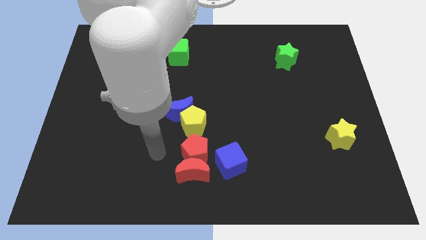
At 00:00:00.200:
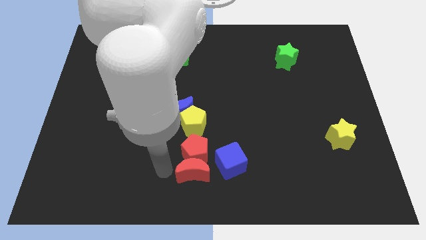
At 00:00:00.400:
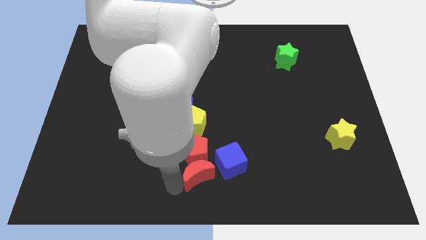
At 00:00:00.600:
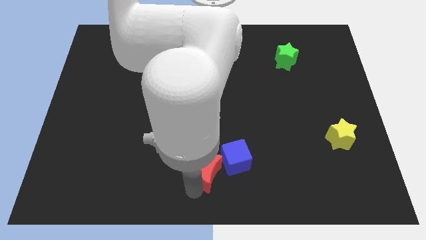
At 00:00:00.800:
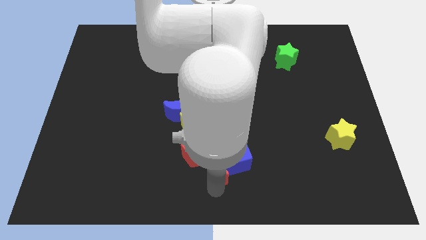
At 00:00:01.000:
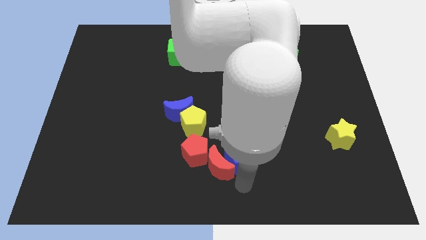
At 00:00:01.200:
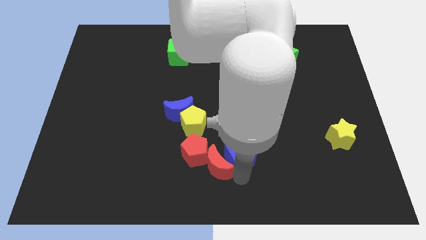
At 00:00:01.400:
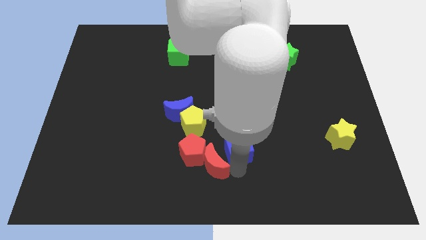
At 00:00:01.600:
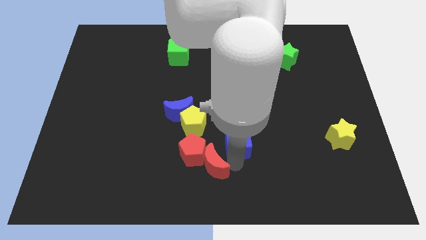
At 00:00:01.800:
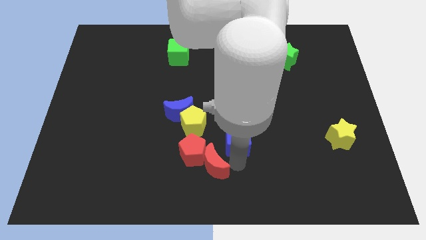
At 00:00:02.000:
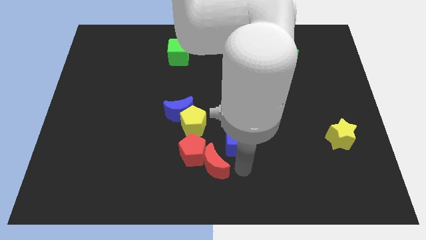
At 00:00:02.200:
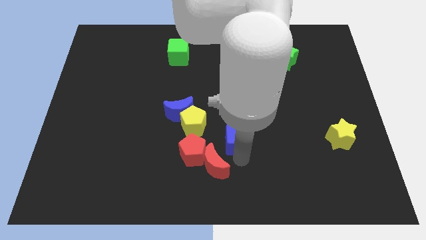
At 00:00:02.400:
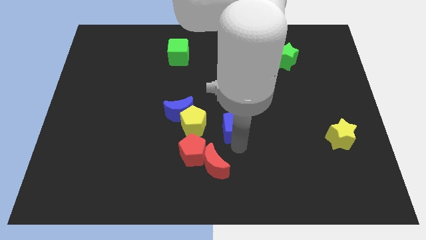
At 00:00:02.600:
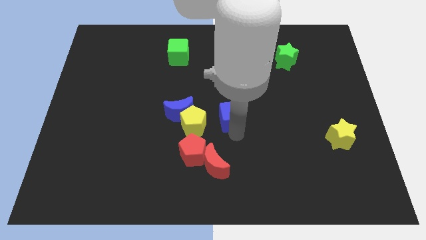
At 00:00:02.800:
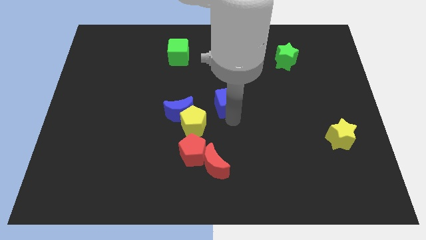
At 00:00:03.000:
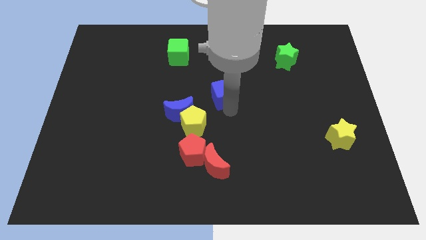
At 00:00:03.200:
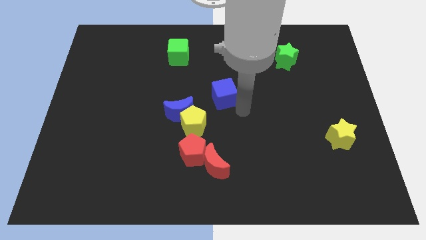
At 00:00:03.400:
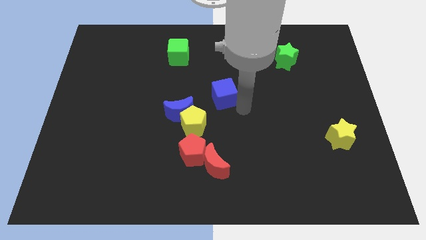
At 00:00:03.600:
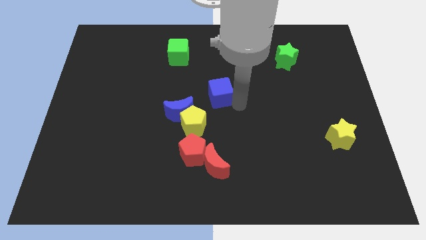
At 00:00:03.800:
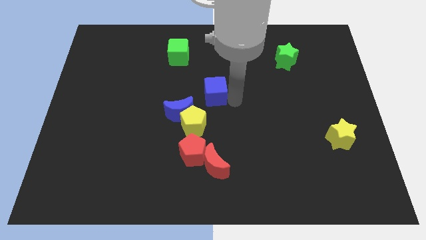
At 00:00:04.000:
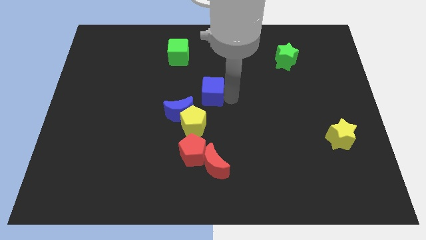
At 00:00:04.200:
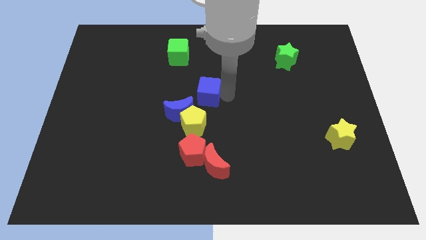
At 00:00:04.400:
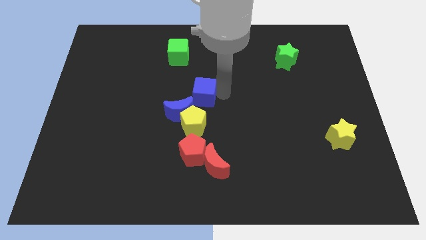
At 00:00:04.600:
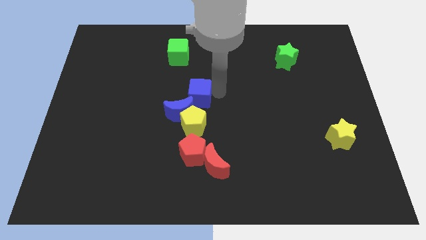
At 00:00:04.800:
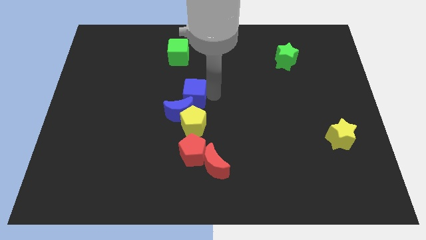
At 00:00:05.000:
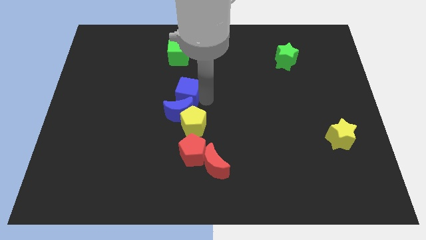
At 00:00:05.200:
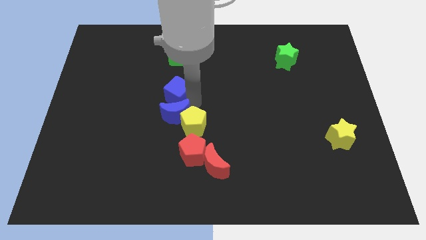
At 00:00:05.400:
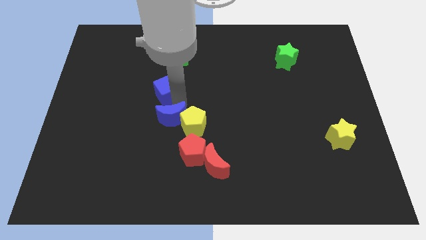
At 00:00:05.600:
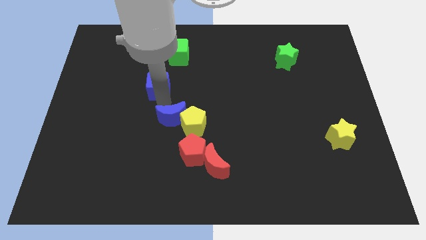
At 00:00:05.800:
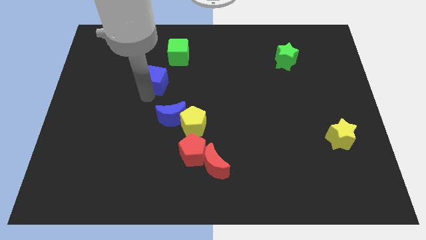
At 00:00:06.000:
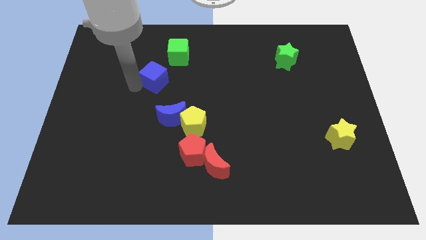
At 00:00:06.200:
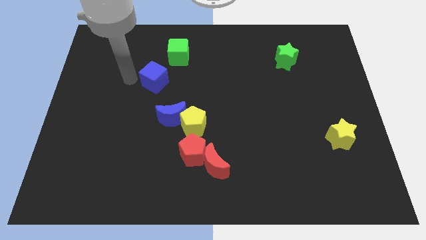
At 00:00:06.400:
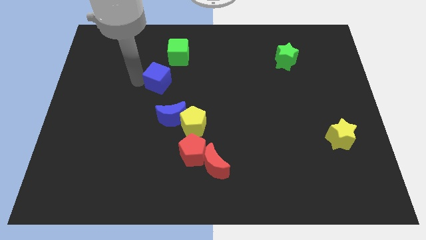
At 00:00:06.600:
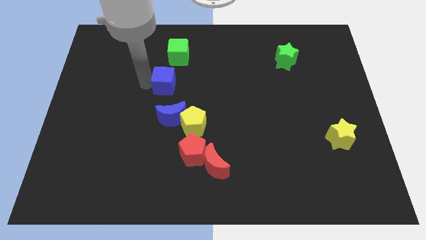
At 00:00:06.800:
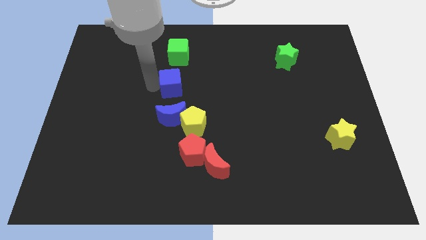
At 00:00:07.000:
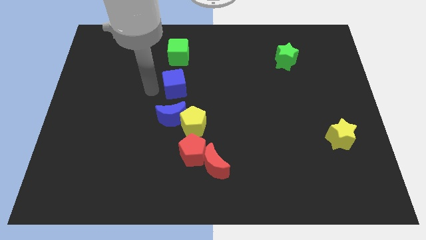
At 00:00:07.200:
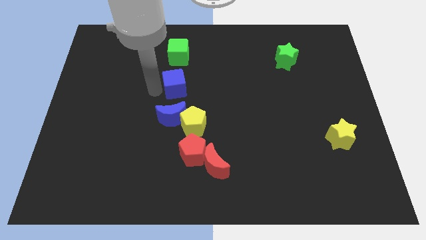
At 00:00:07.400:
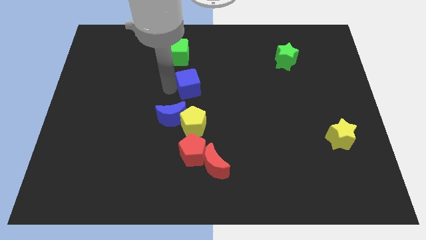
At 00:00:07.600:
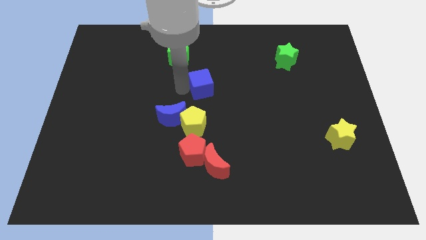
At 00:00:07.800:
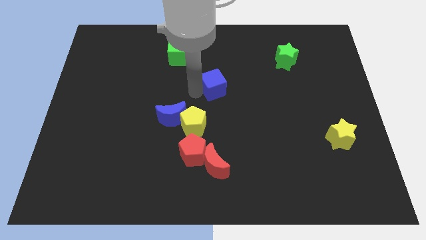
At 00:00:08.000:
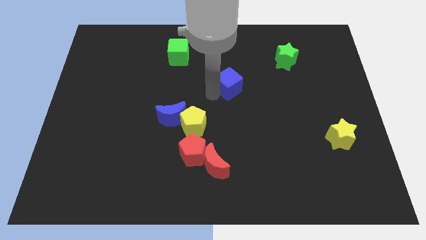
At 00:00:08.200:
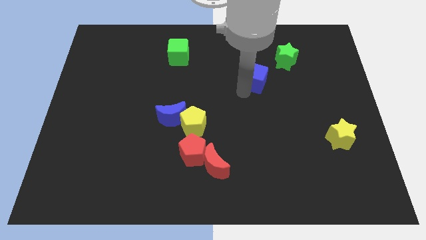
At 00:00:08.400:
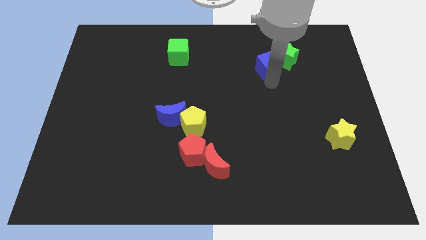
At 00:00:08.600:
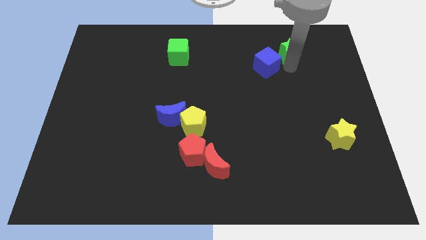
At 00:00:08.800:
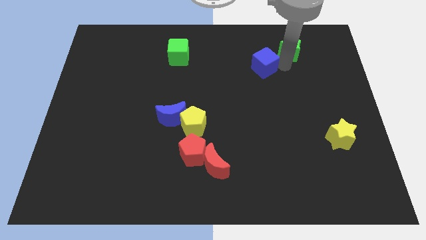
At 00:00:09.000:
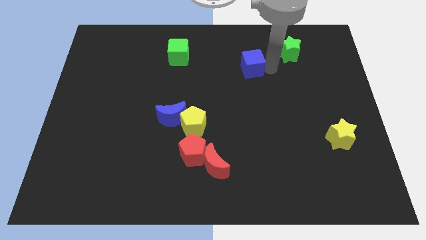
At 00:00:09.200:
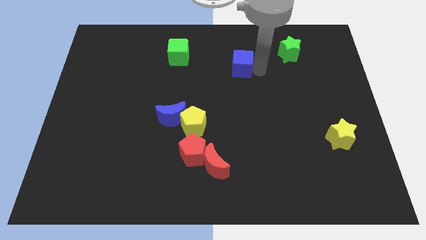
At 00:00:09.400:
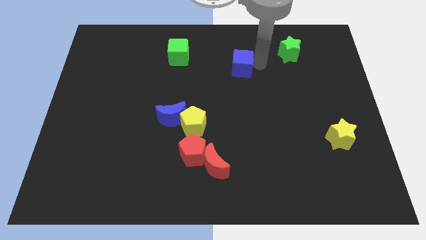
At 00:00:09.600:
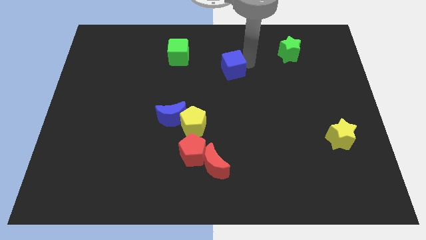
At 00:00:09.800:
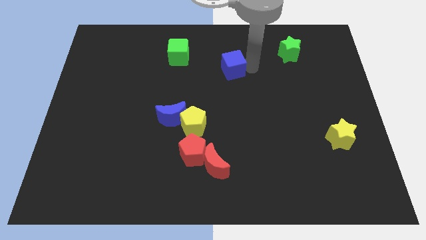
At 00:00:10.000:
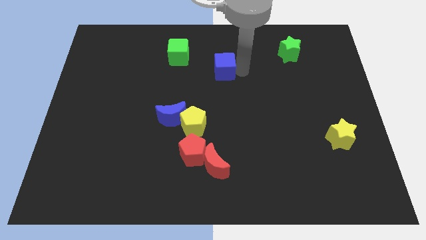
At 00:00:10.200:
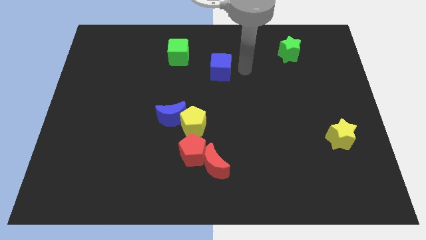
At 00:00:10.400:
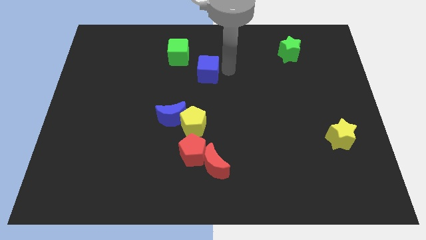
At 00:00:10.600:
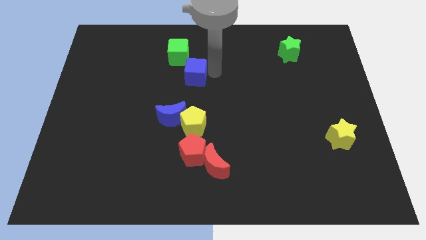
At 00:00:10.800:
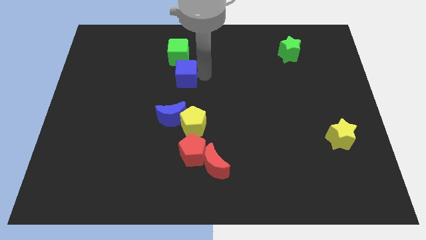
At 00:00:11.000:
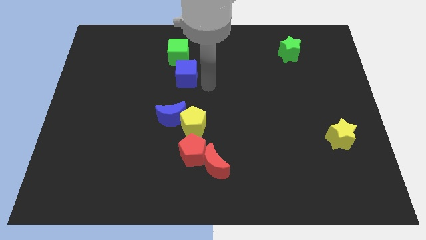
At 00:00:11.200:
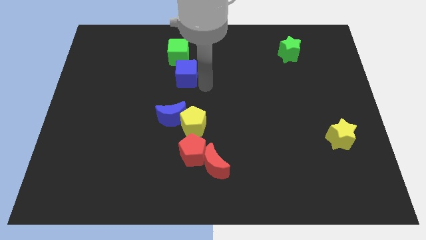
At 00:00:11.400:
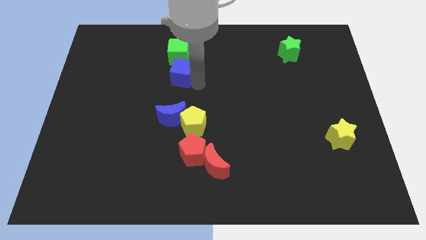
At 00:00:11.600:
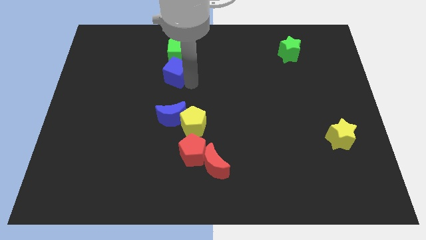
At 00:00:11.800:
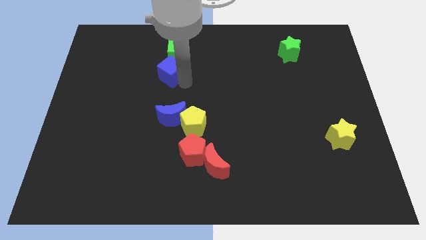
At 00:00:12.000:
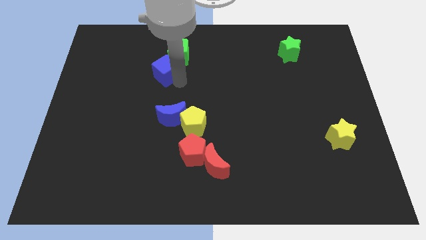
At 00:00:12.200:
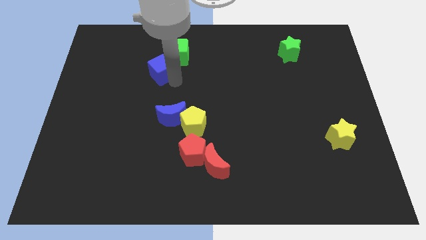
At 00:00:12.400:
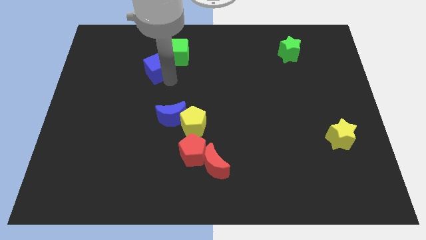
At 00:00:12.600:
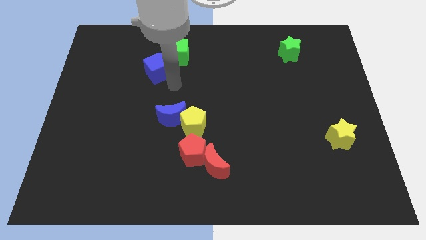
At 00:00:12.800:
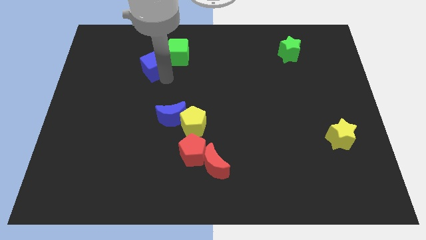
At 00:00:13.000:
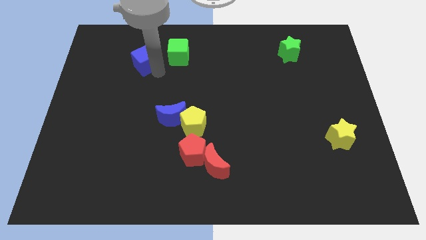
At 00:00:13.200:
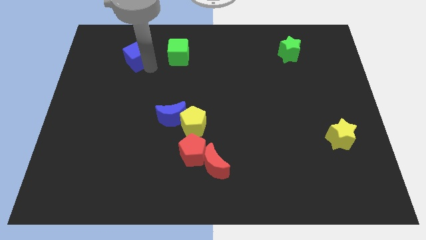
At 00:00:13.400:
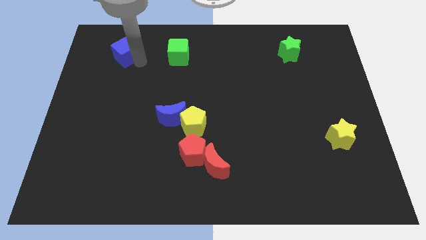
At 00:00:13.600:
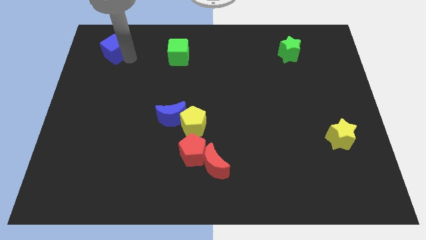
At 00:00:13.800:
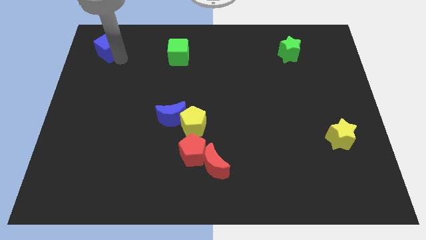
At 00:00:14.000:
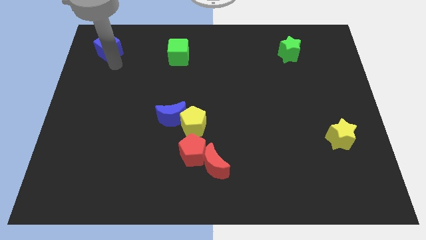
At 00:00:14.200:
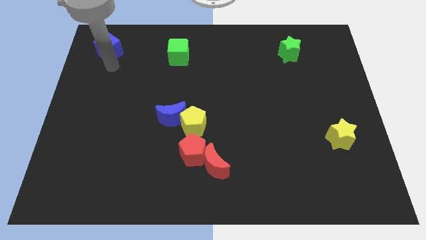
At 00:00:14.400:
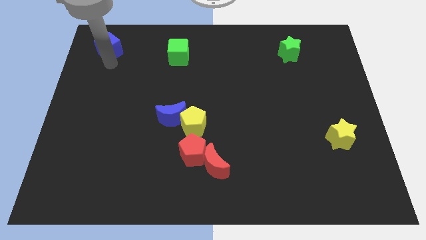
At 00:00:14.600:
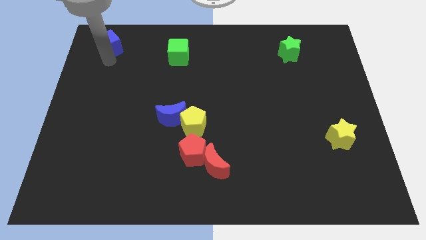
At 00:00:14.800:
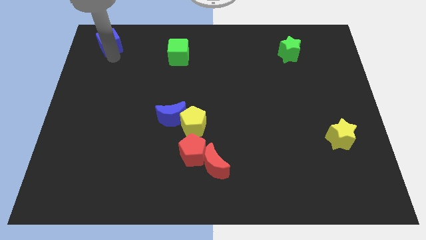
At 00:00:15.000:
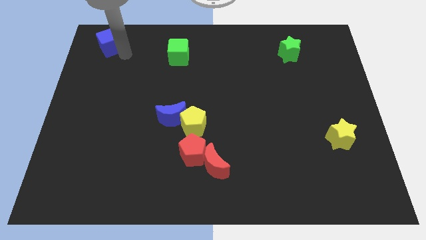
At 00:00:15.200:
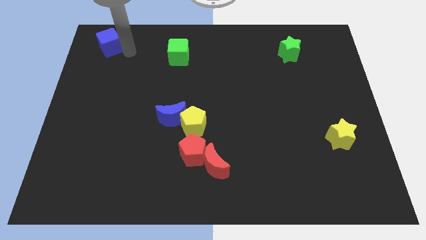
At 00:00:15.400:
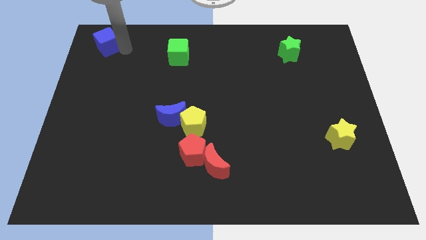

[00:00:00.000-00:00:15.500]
move the blue cube to the top left
